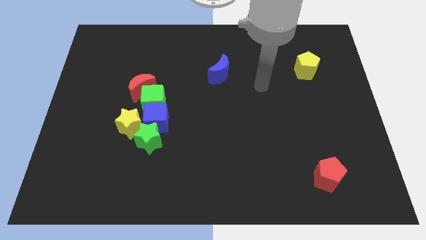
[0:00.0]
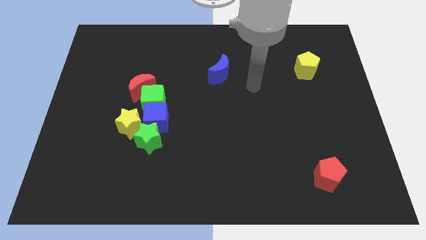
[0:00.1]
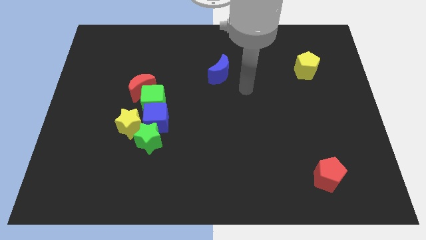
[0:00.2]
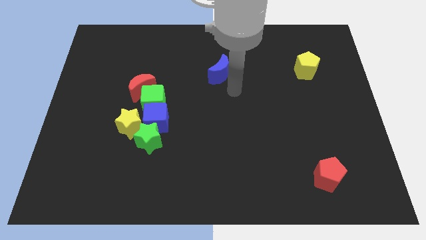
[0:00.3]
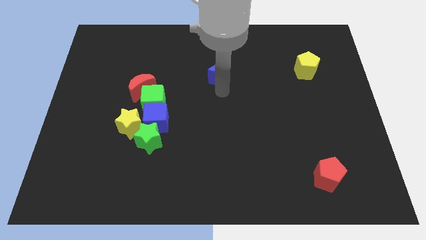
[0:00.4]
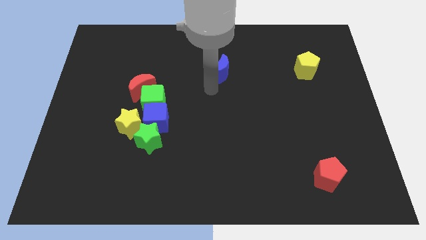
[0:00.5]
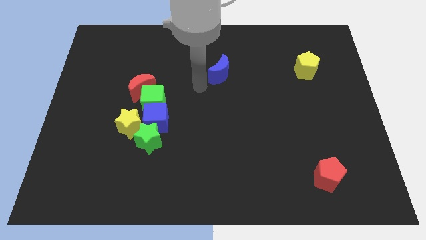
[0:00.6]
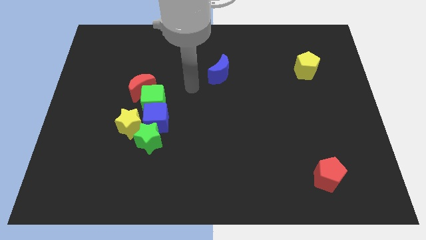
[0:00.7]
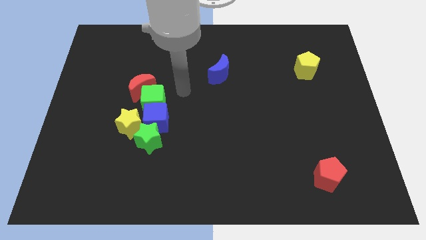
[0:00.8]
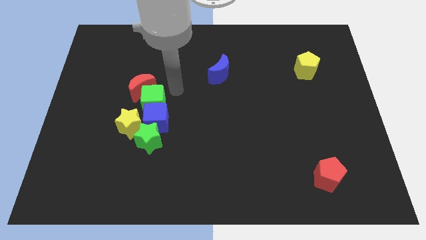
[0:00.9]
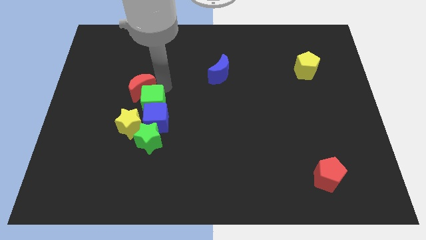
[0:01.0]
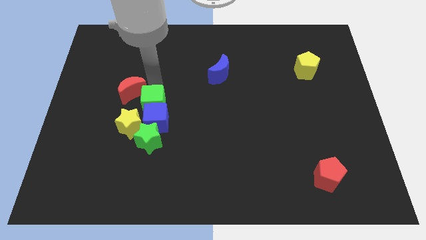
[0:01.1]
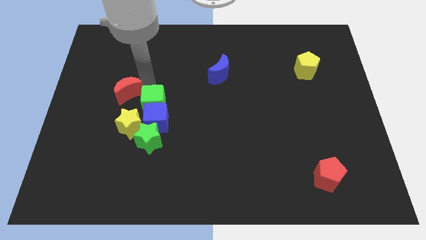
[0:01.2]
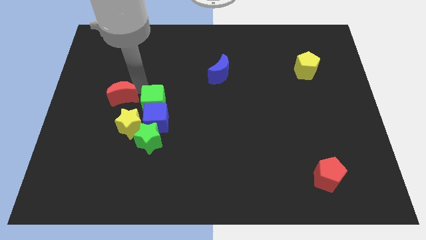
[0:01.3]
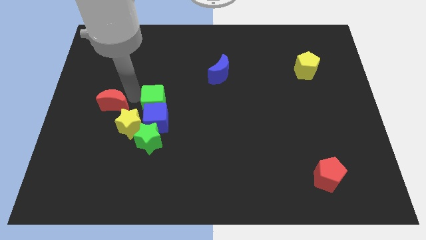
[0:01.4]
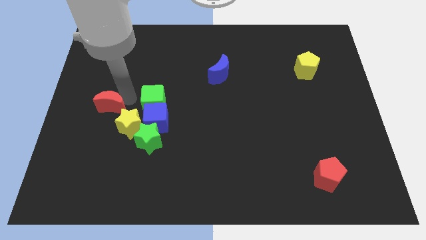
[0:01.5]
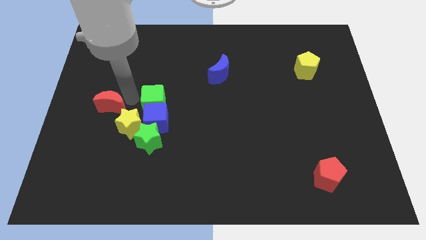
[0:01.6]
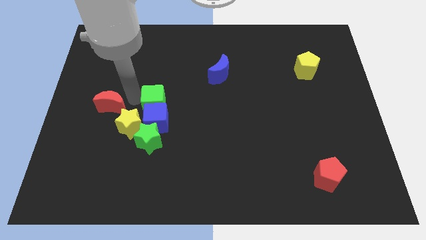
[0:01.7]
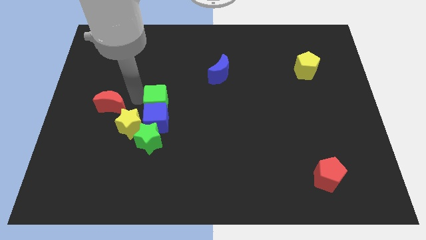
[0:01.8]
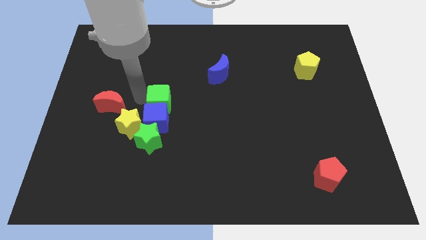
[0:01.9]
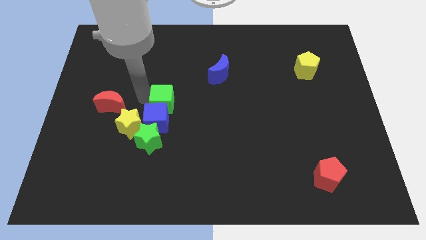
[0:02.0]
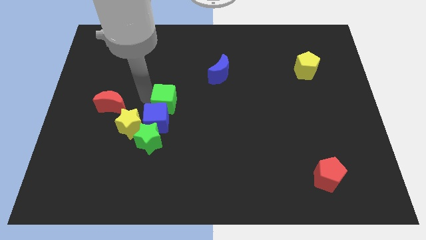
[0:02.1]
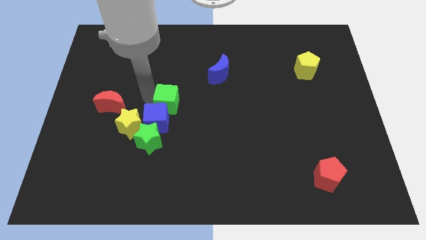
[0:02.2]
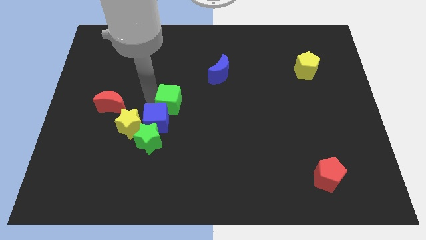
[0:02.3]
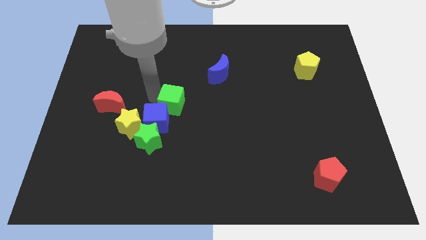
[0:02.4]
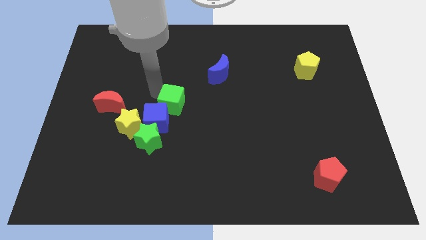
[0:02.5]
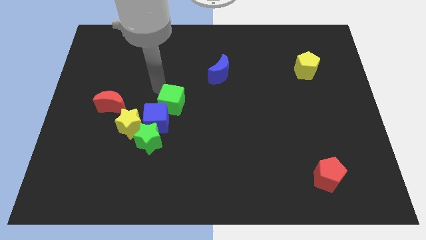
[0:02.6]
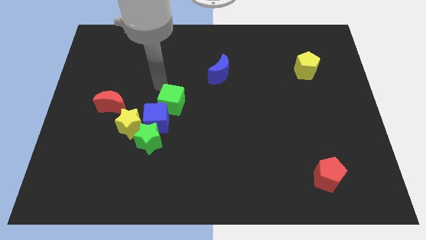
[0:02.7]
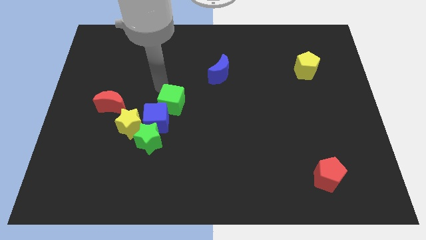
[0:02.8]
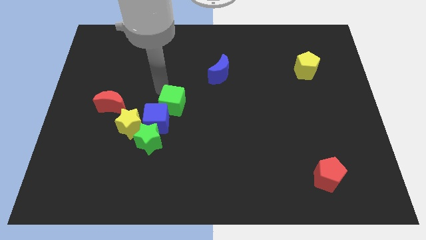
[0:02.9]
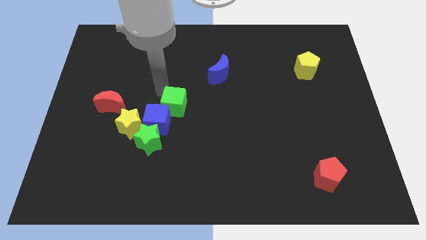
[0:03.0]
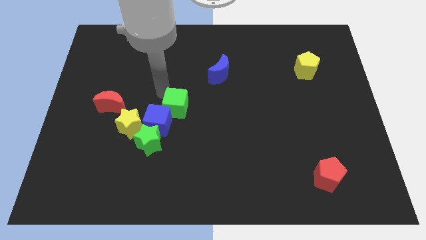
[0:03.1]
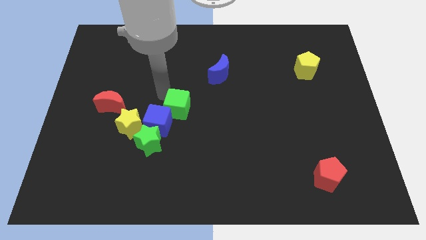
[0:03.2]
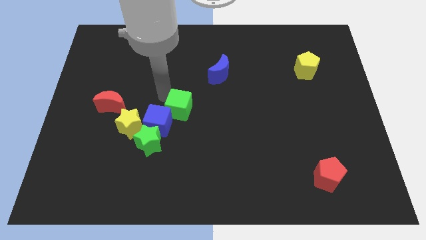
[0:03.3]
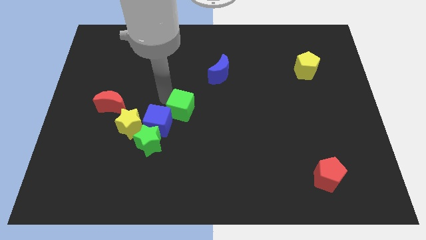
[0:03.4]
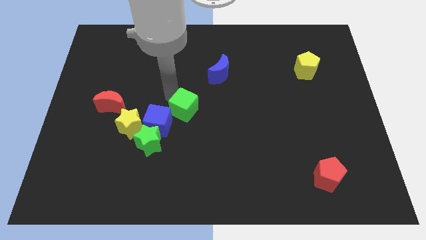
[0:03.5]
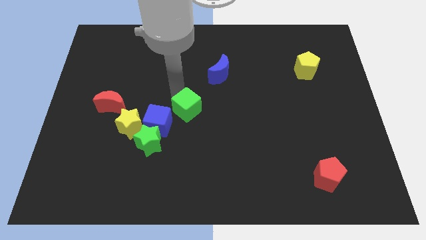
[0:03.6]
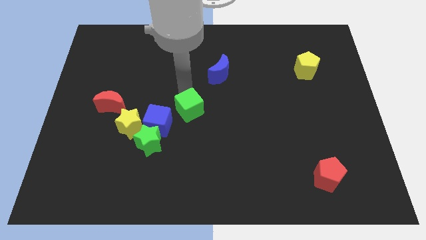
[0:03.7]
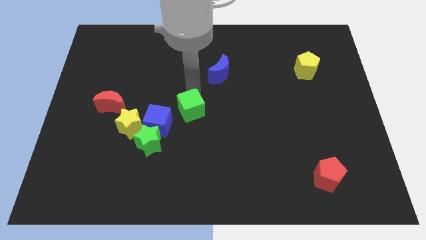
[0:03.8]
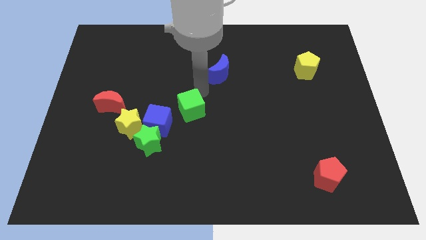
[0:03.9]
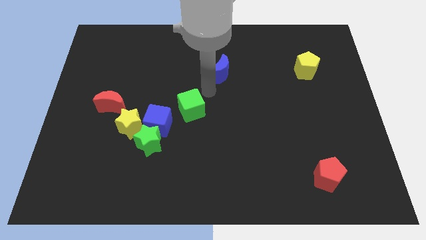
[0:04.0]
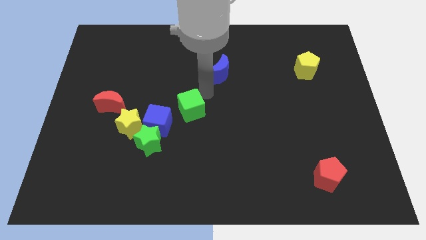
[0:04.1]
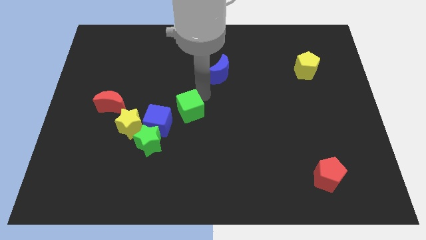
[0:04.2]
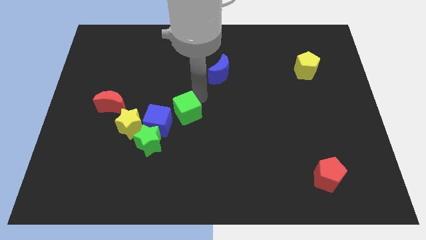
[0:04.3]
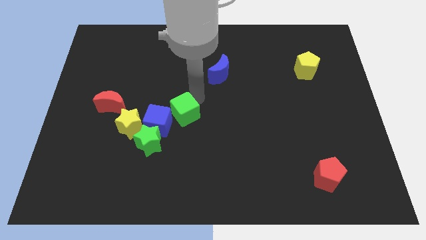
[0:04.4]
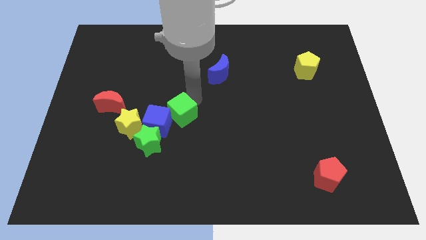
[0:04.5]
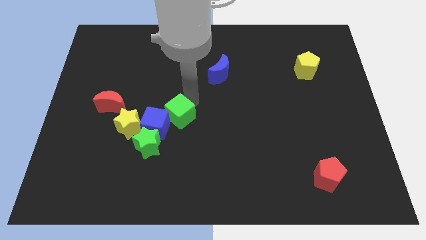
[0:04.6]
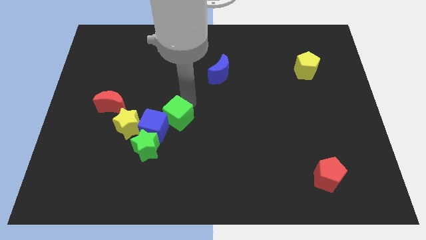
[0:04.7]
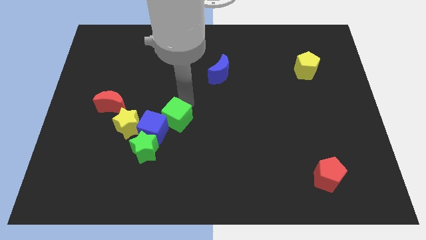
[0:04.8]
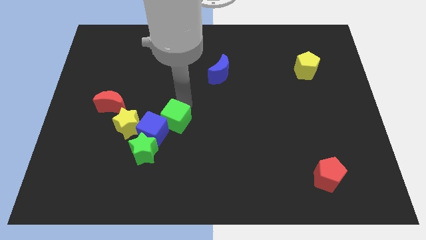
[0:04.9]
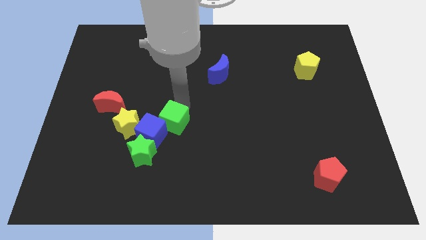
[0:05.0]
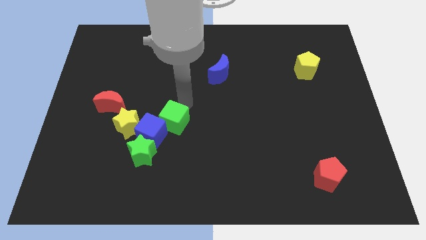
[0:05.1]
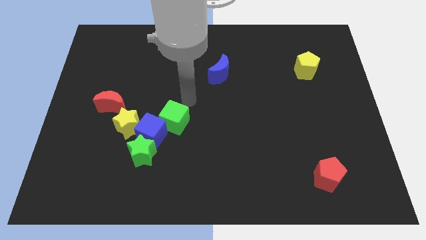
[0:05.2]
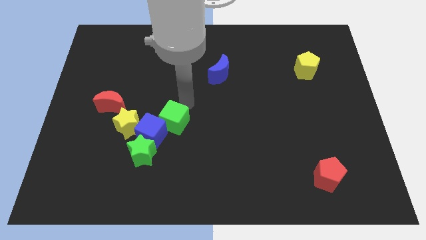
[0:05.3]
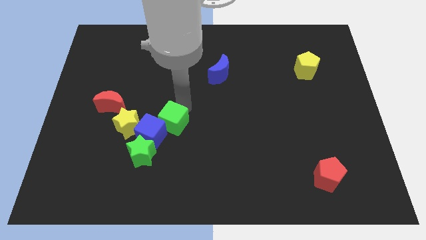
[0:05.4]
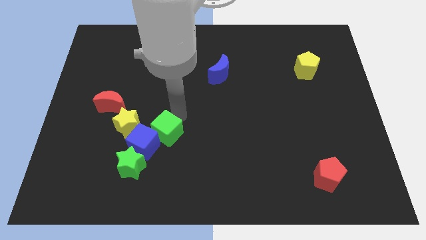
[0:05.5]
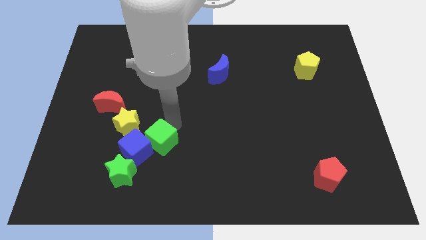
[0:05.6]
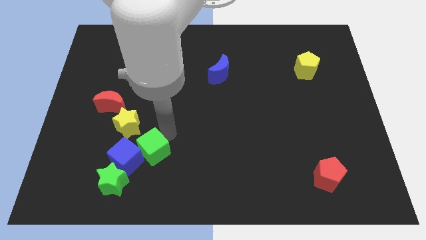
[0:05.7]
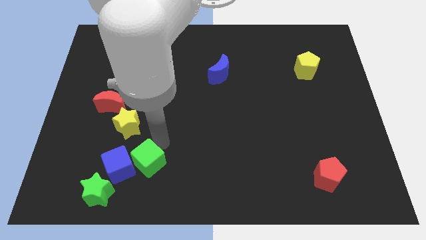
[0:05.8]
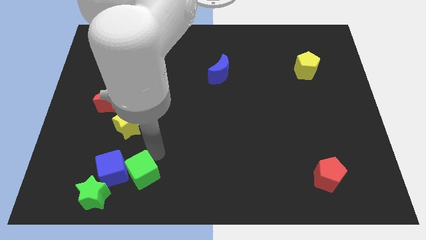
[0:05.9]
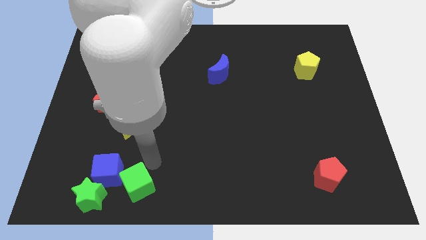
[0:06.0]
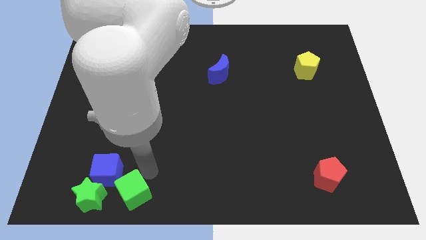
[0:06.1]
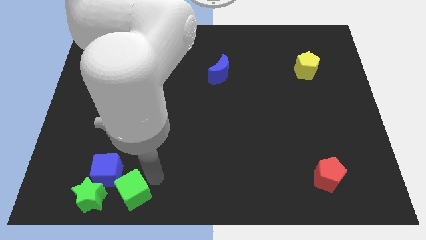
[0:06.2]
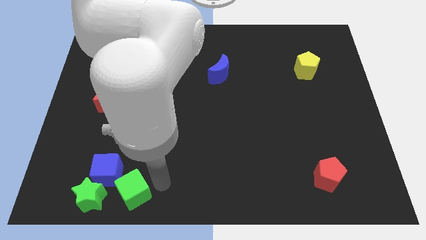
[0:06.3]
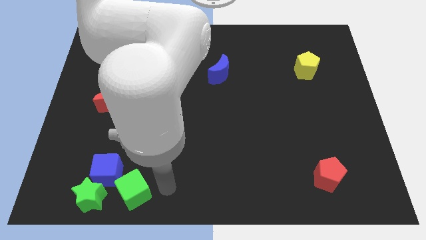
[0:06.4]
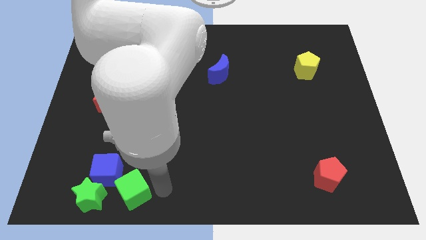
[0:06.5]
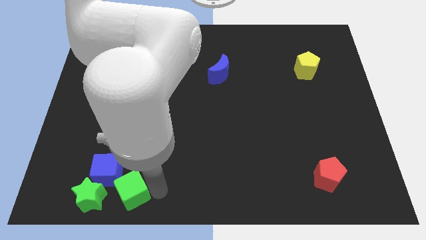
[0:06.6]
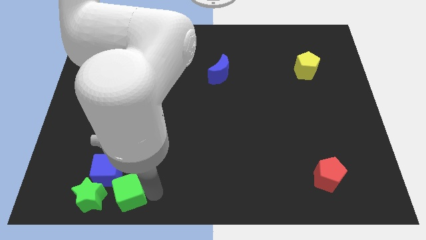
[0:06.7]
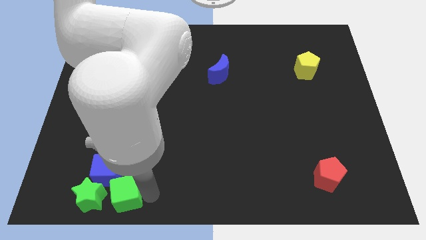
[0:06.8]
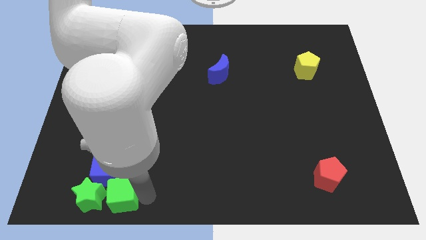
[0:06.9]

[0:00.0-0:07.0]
push the green cube towards the green star

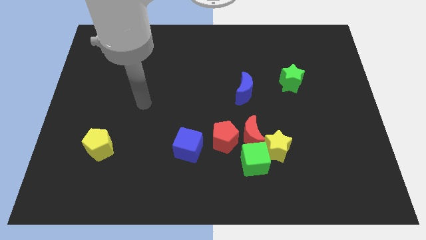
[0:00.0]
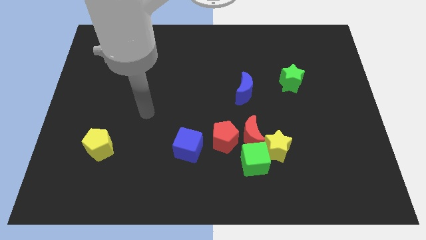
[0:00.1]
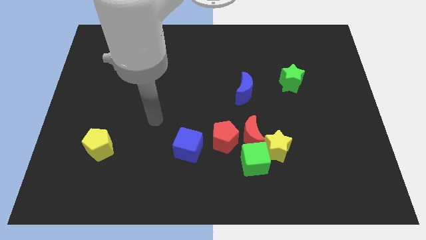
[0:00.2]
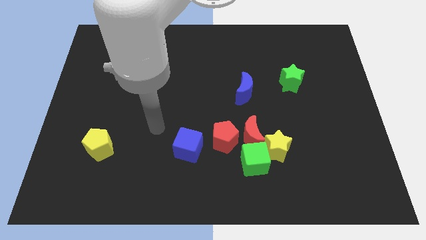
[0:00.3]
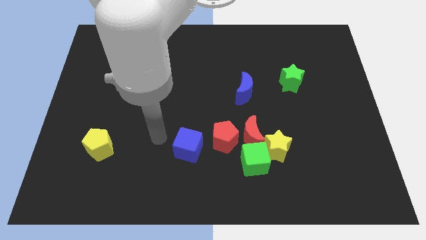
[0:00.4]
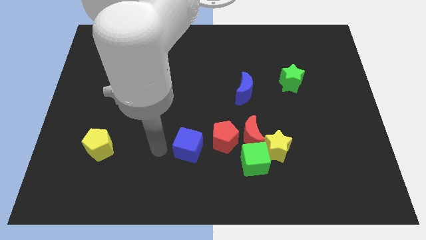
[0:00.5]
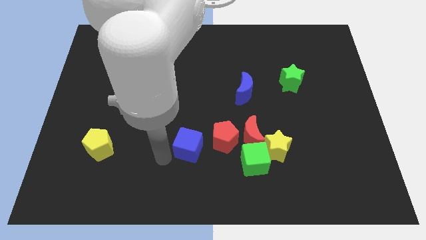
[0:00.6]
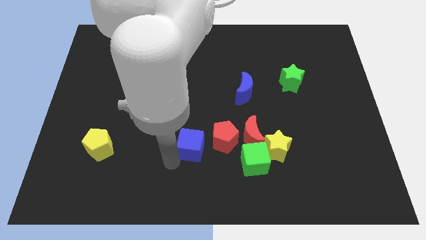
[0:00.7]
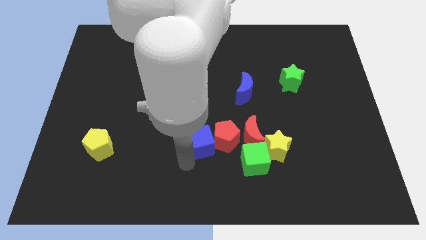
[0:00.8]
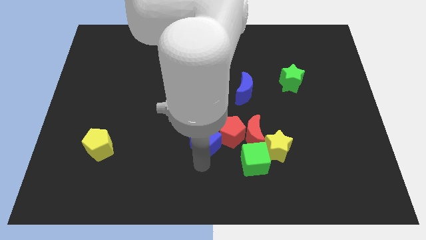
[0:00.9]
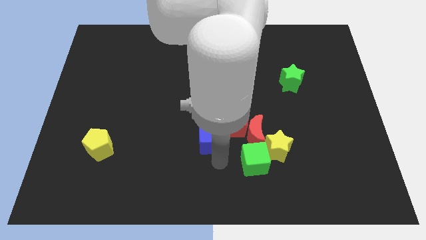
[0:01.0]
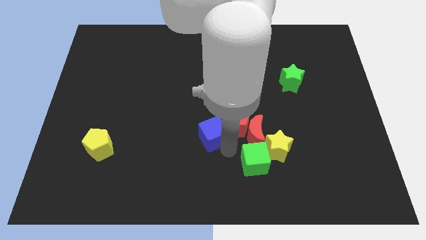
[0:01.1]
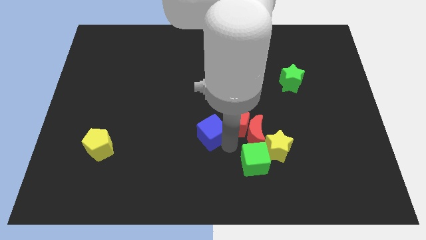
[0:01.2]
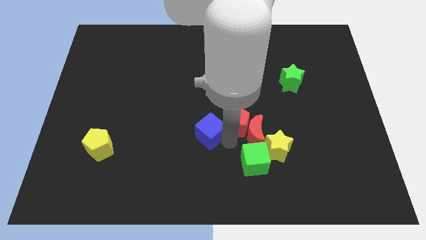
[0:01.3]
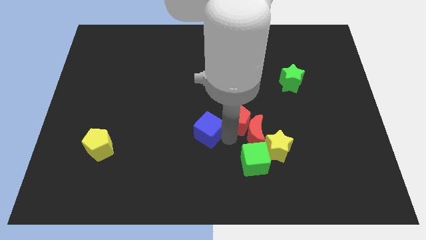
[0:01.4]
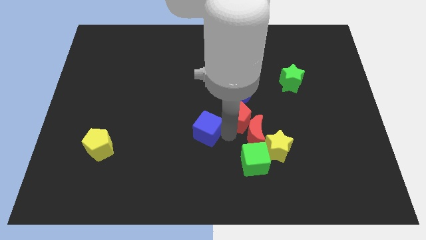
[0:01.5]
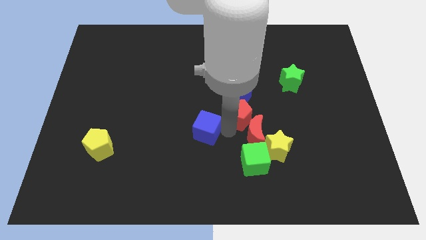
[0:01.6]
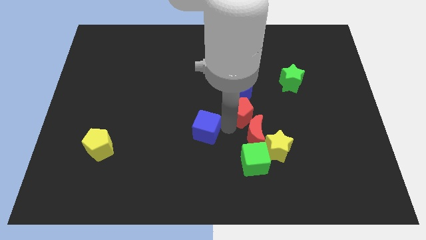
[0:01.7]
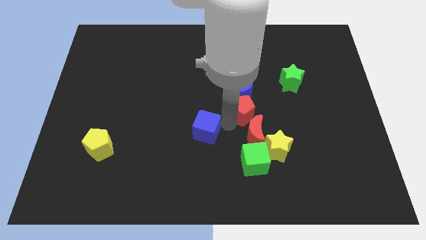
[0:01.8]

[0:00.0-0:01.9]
move the red pentagon towards the blue moon
